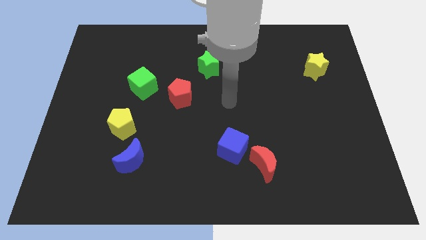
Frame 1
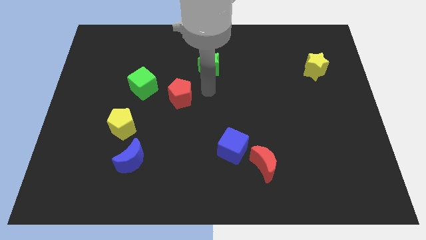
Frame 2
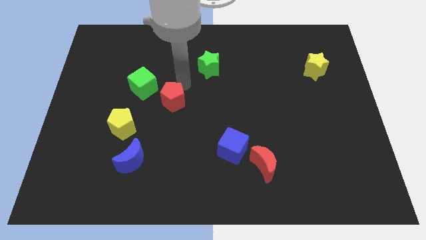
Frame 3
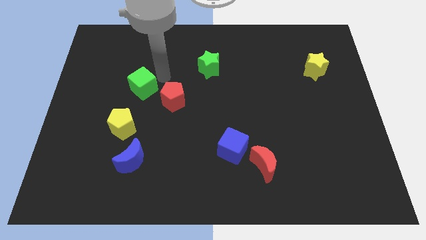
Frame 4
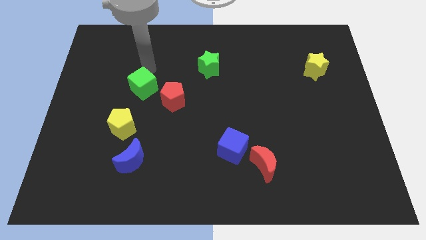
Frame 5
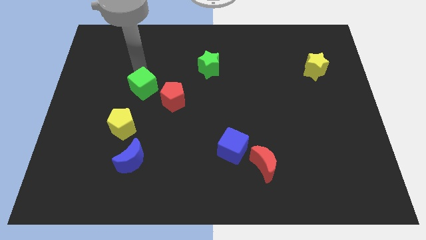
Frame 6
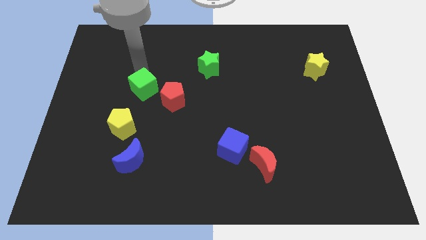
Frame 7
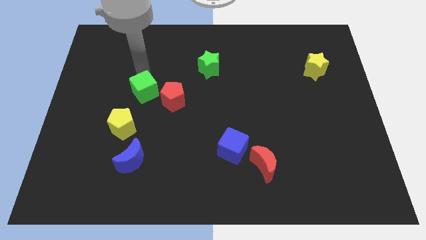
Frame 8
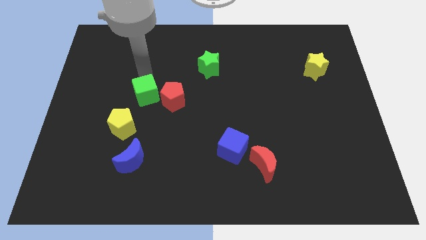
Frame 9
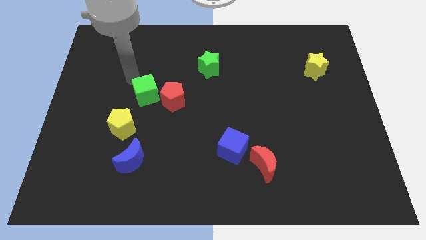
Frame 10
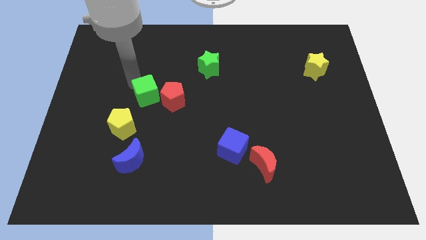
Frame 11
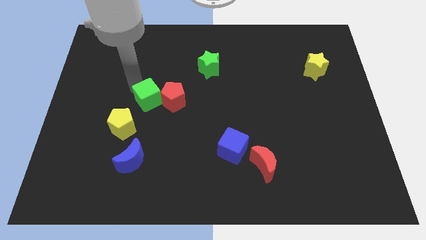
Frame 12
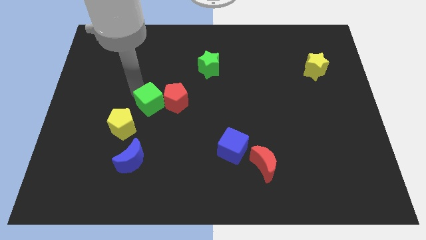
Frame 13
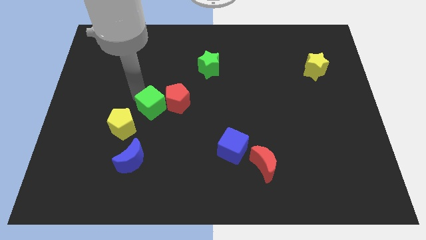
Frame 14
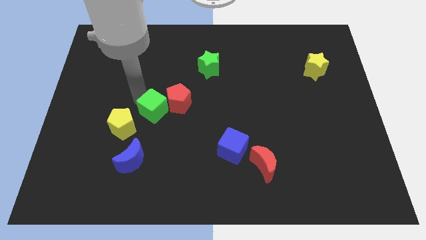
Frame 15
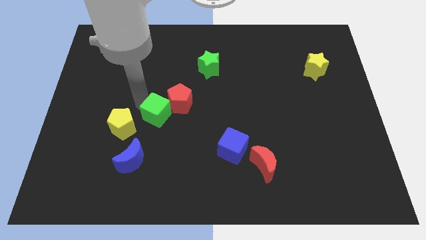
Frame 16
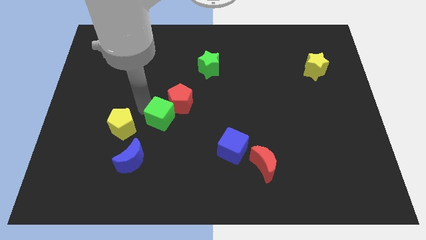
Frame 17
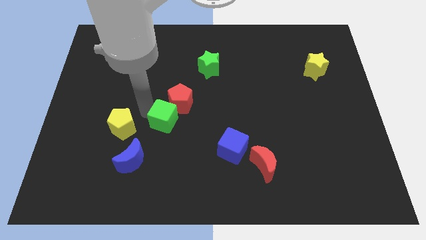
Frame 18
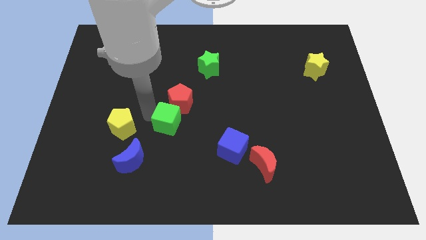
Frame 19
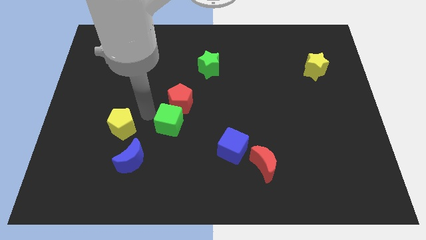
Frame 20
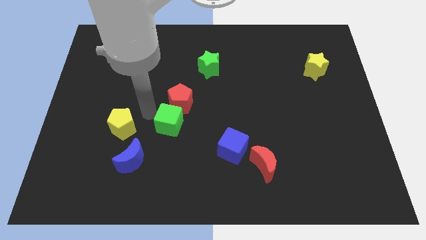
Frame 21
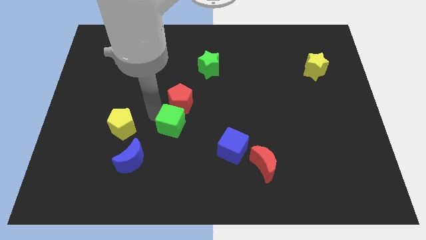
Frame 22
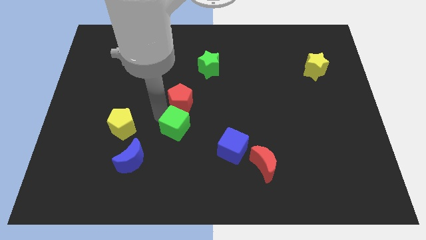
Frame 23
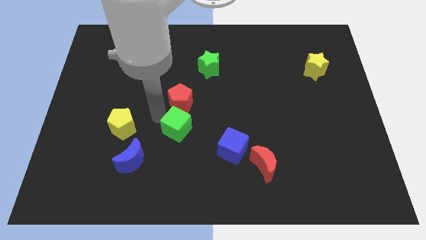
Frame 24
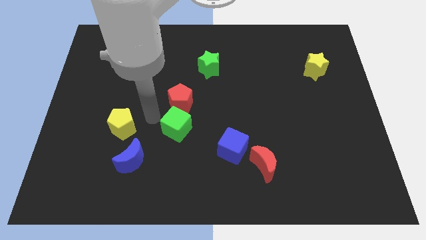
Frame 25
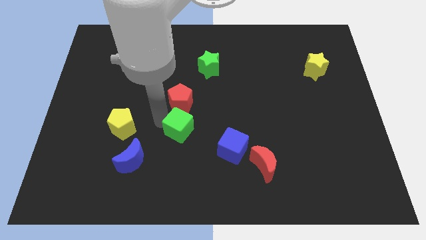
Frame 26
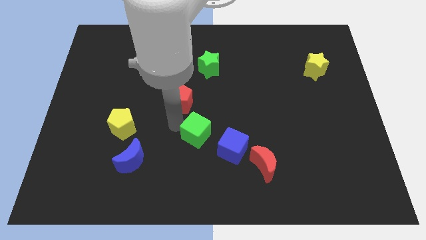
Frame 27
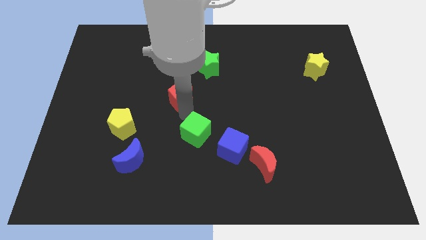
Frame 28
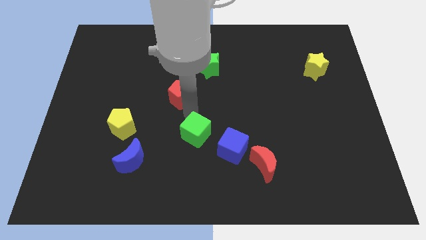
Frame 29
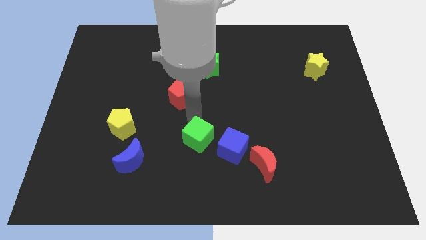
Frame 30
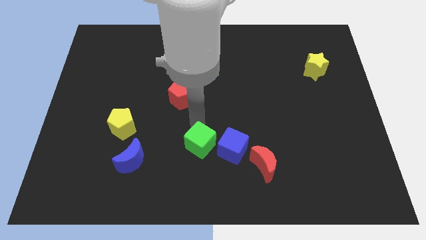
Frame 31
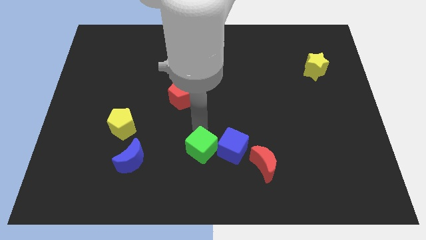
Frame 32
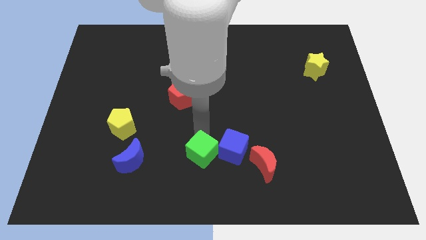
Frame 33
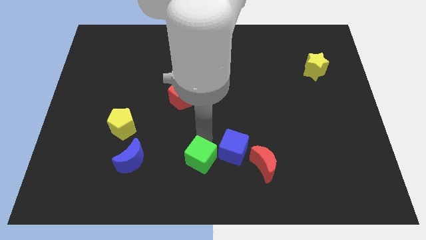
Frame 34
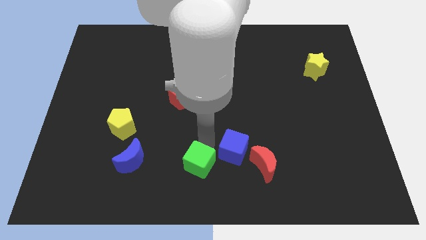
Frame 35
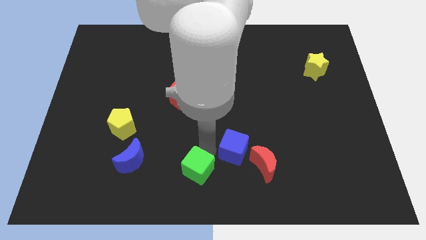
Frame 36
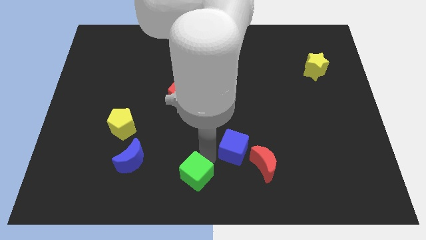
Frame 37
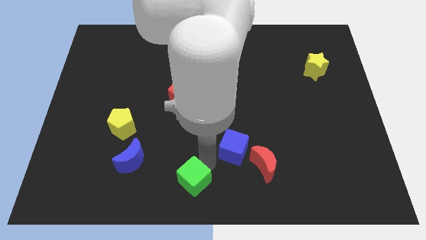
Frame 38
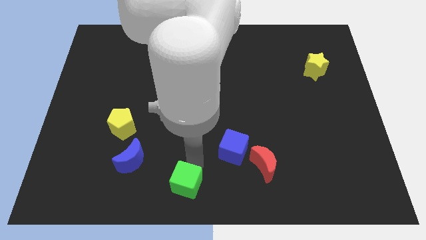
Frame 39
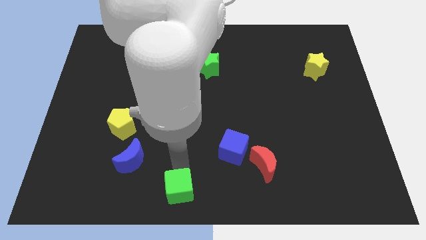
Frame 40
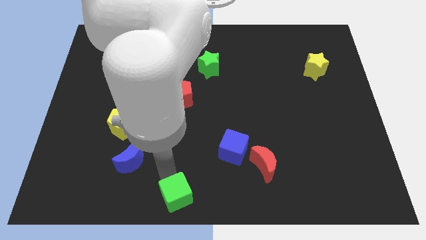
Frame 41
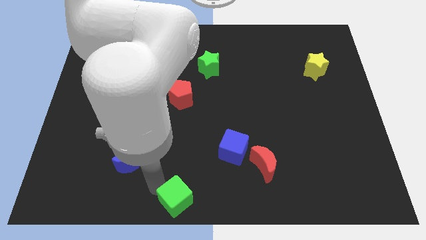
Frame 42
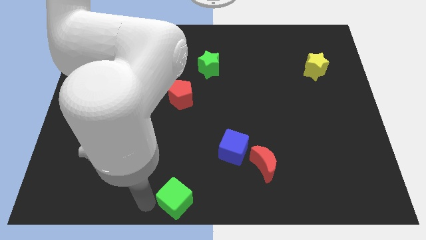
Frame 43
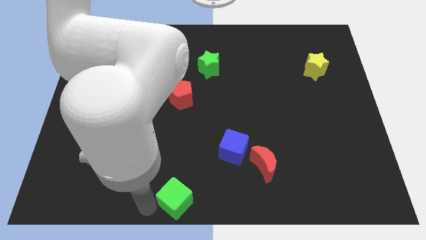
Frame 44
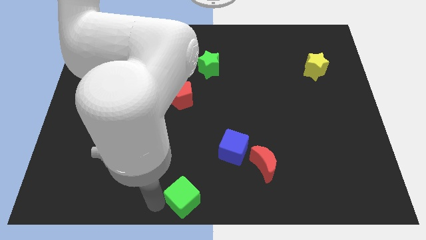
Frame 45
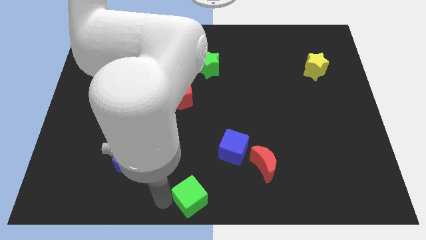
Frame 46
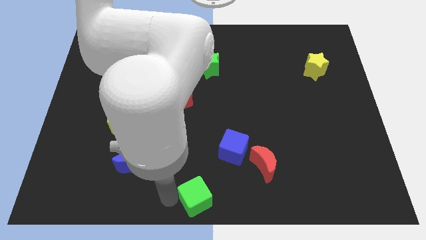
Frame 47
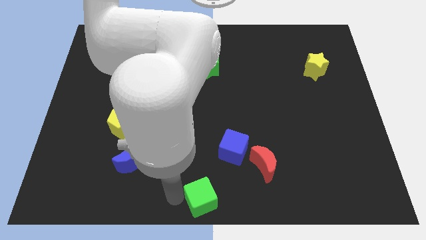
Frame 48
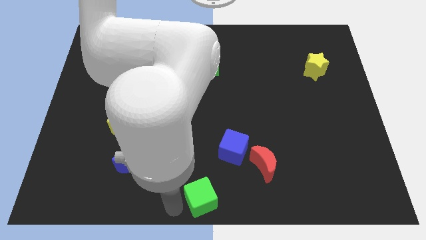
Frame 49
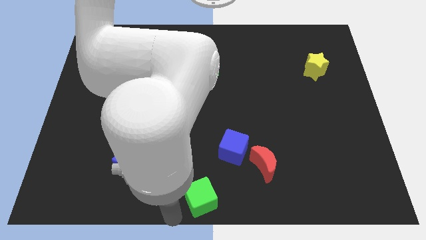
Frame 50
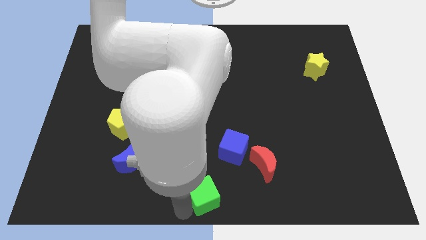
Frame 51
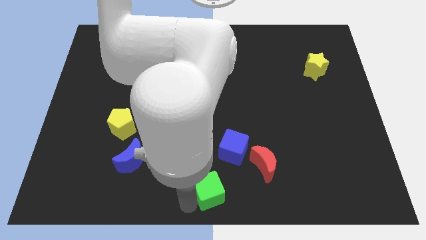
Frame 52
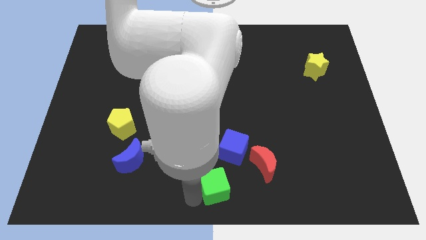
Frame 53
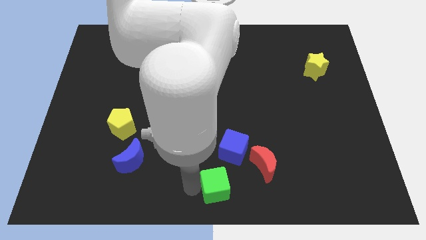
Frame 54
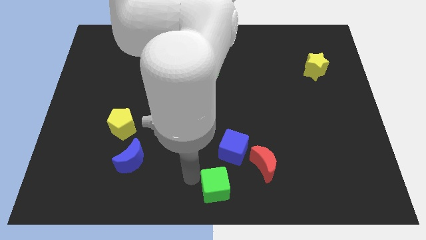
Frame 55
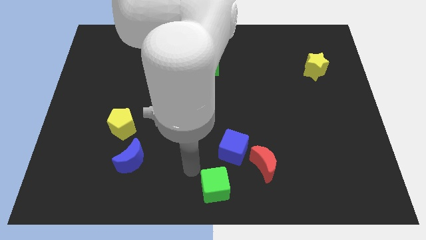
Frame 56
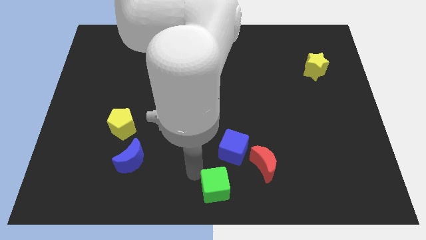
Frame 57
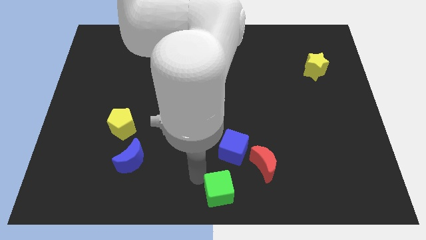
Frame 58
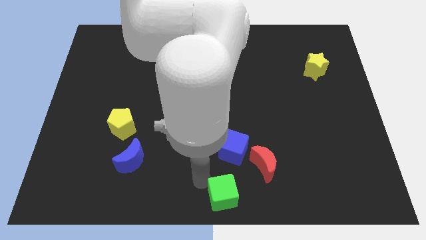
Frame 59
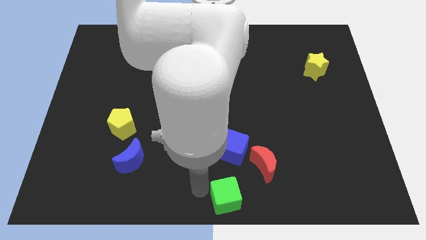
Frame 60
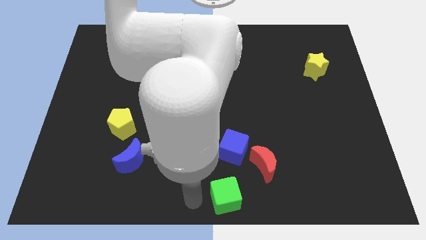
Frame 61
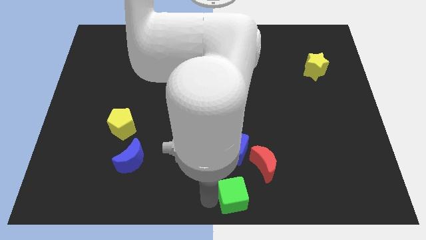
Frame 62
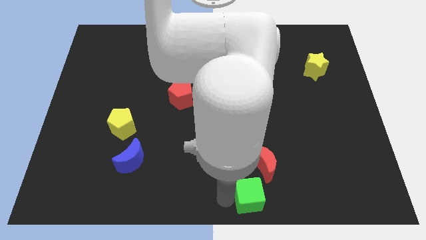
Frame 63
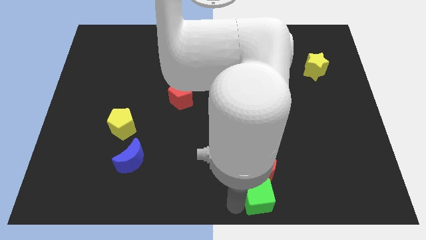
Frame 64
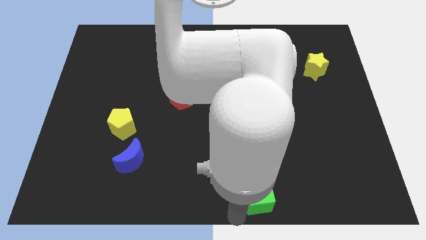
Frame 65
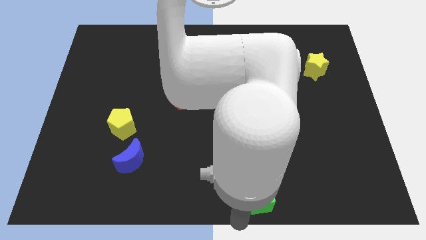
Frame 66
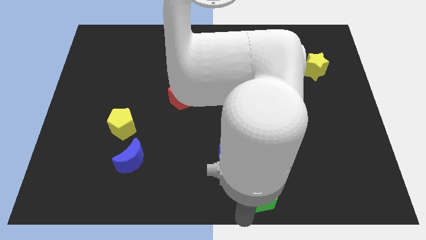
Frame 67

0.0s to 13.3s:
move the green cube diagonally down and to the right of the blue cube

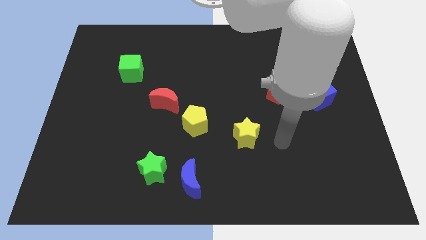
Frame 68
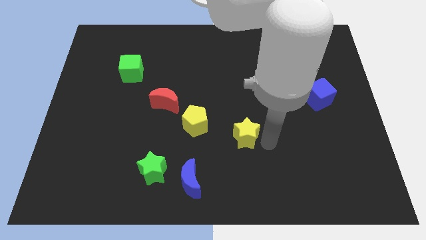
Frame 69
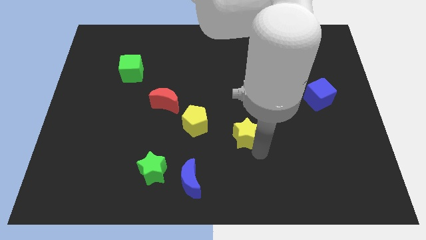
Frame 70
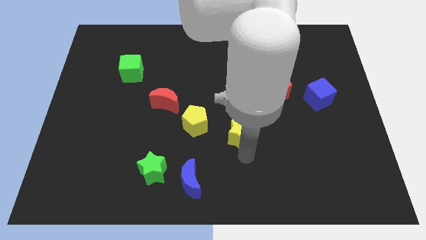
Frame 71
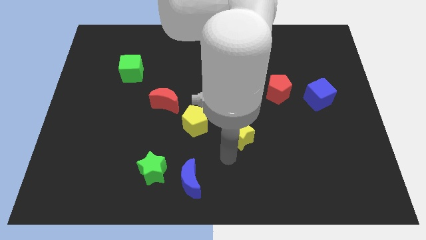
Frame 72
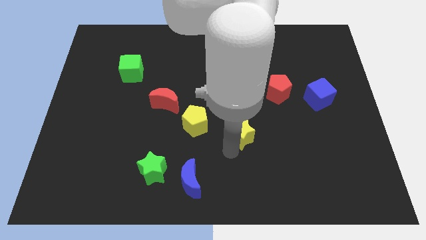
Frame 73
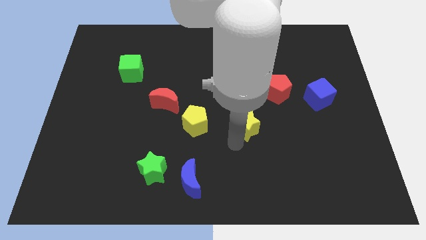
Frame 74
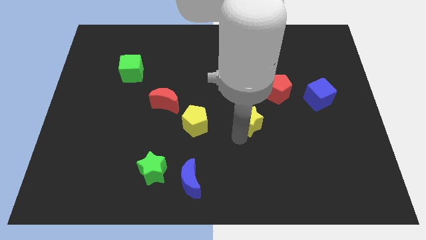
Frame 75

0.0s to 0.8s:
put the yellow star diagonally down and to the left of the red pentagon
